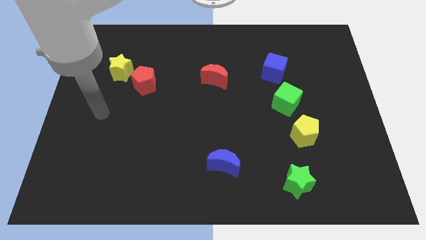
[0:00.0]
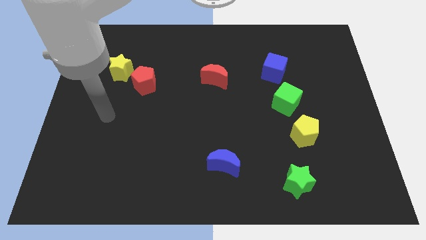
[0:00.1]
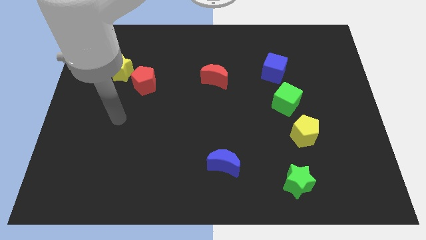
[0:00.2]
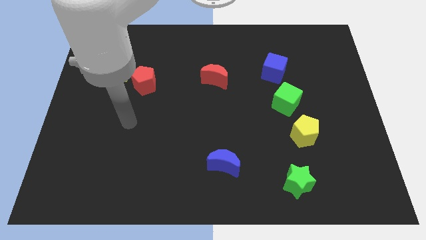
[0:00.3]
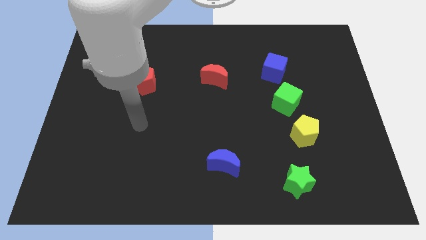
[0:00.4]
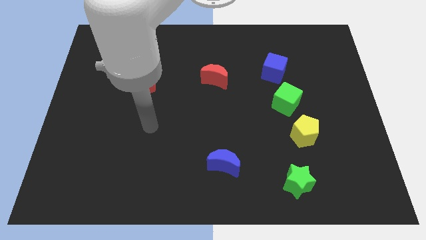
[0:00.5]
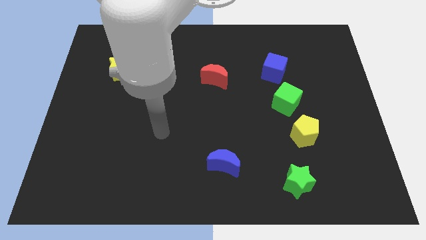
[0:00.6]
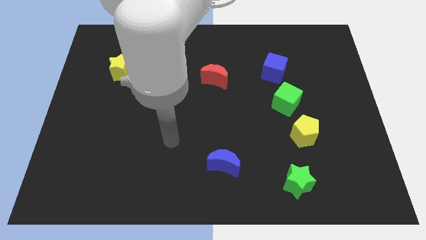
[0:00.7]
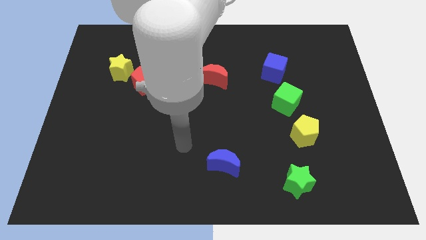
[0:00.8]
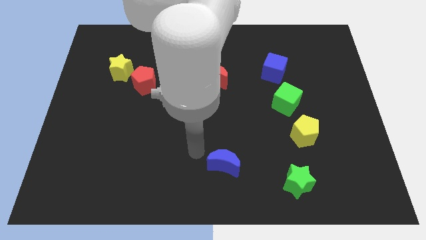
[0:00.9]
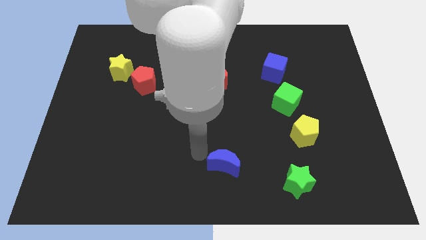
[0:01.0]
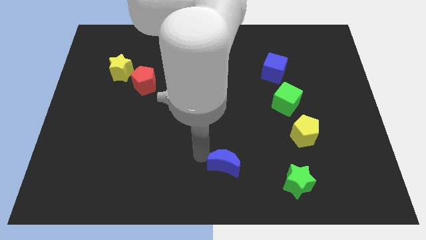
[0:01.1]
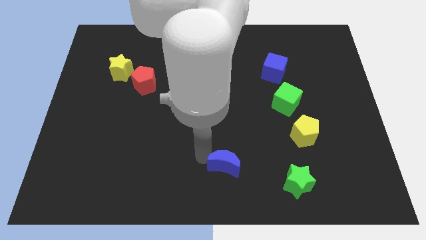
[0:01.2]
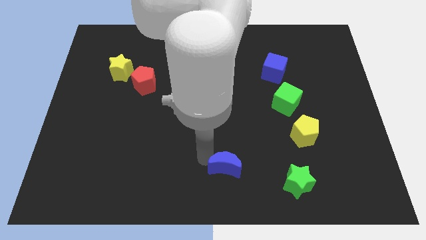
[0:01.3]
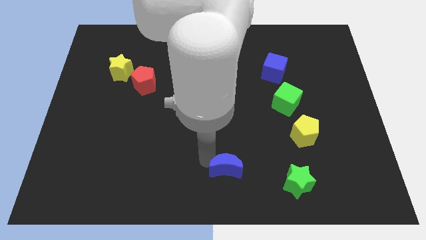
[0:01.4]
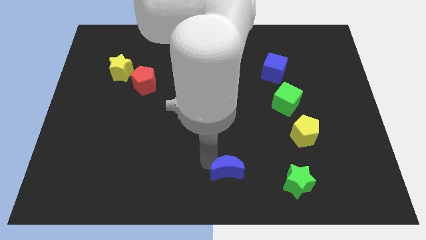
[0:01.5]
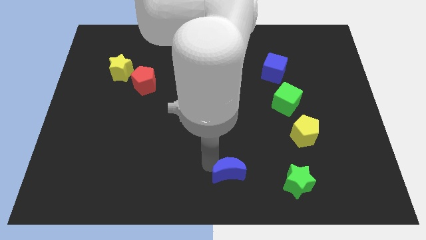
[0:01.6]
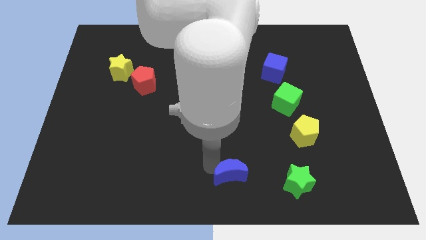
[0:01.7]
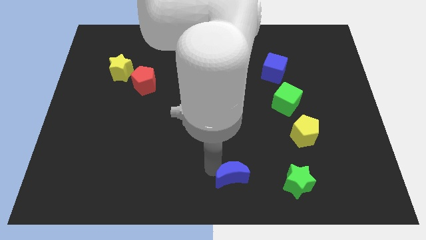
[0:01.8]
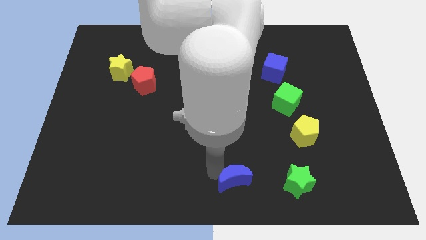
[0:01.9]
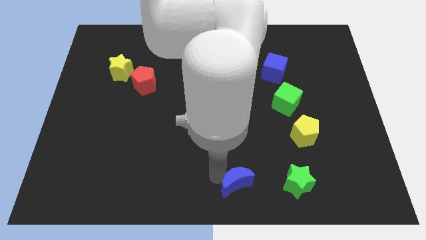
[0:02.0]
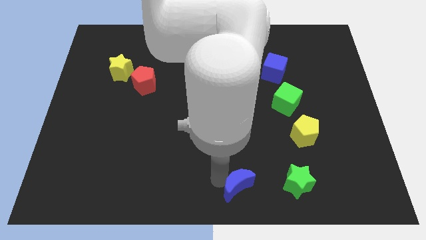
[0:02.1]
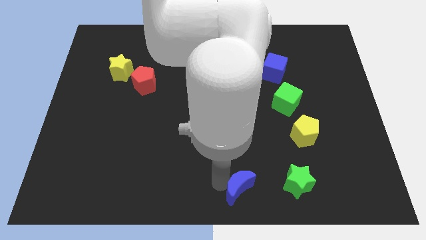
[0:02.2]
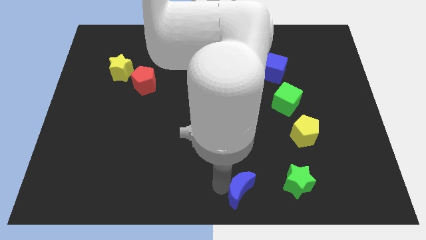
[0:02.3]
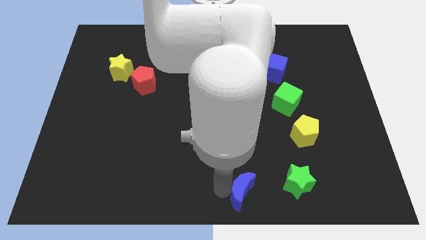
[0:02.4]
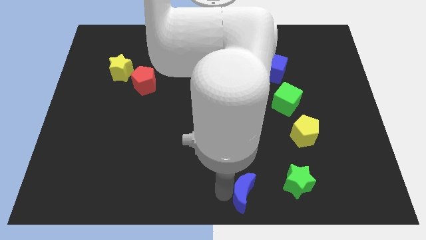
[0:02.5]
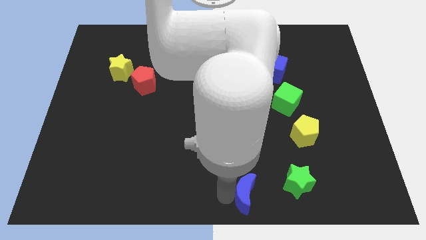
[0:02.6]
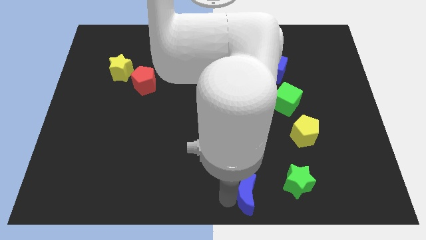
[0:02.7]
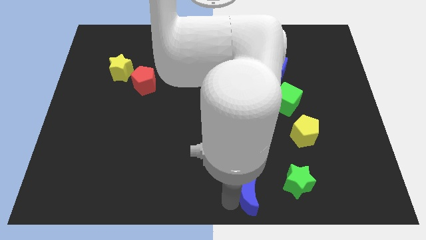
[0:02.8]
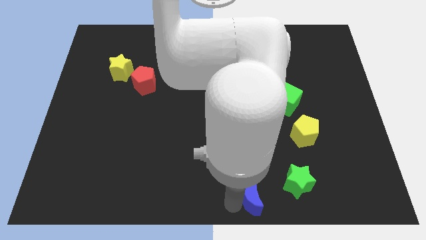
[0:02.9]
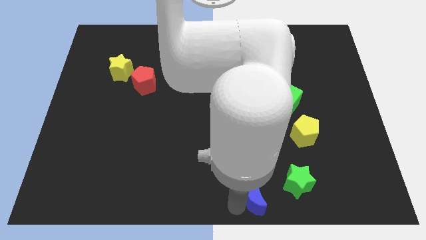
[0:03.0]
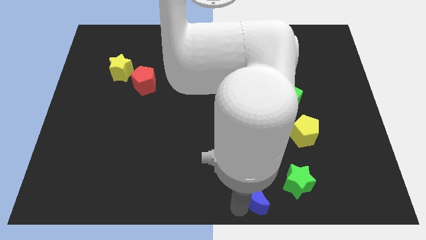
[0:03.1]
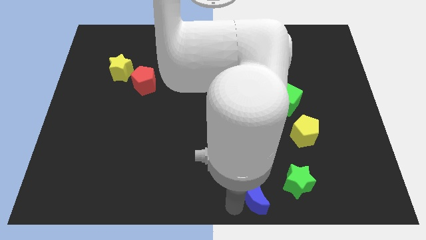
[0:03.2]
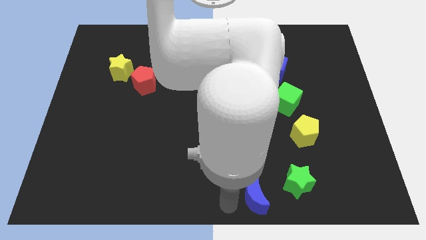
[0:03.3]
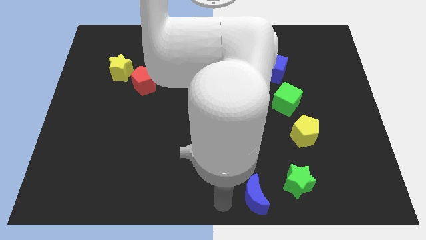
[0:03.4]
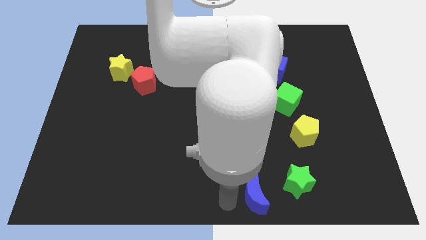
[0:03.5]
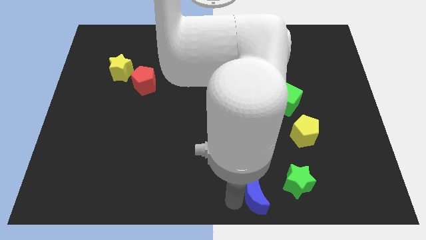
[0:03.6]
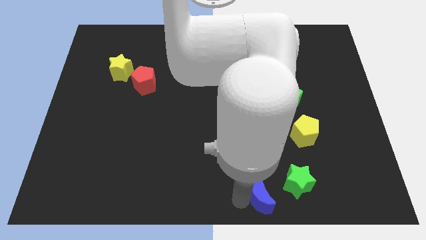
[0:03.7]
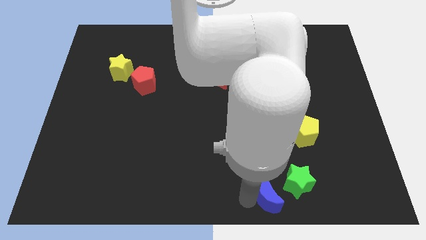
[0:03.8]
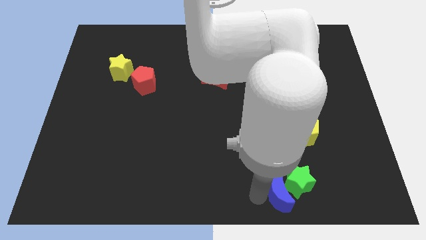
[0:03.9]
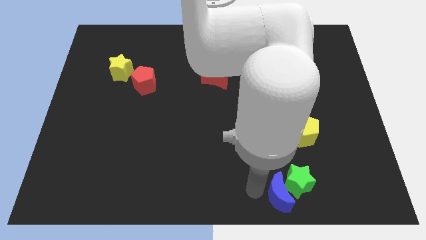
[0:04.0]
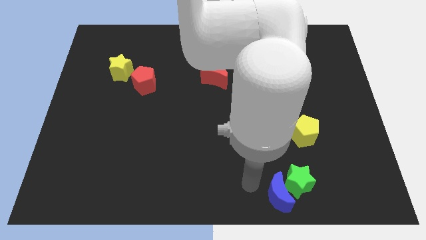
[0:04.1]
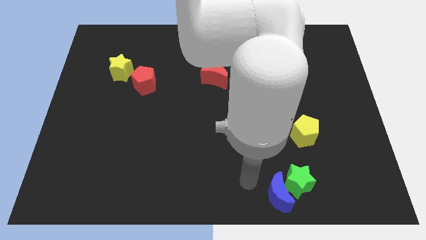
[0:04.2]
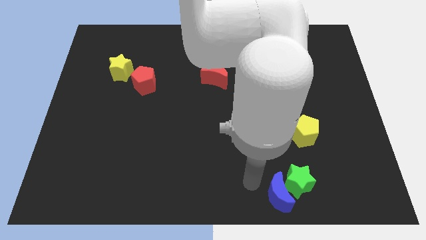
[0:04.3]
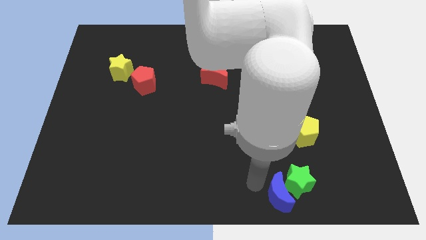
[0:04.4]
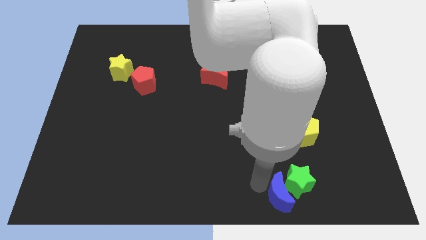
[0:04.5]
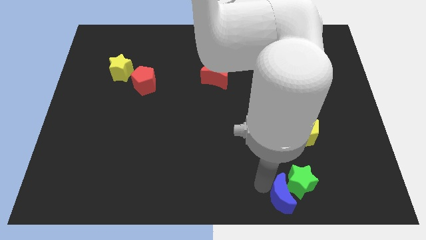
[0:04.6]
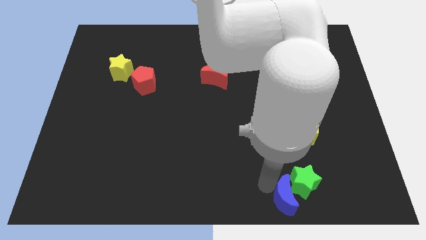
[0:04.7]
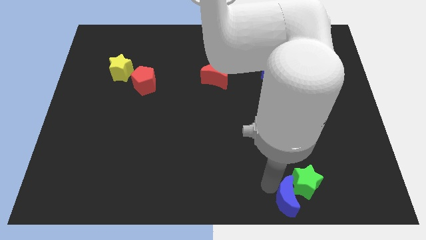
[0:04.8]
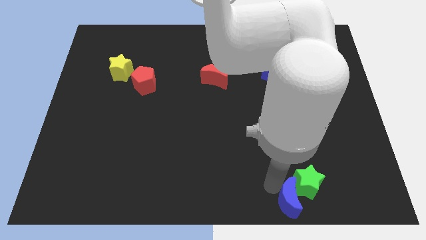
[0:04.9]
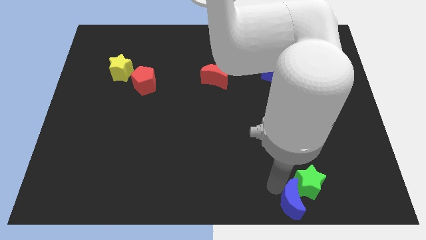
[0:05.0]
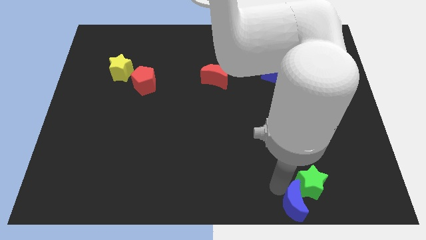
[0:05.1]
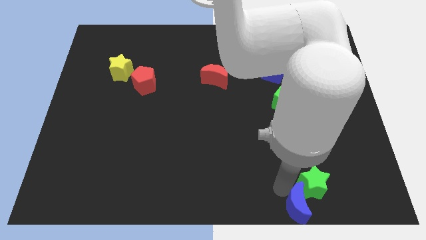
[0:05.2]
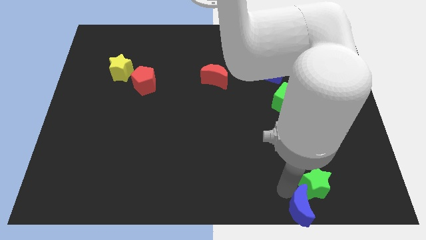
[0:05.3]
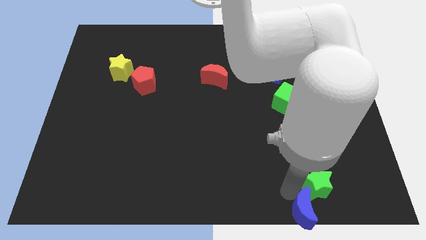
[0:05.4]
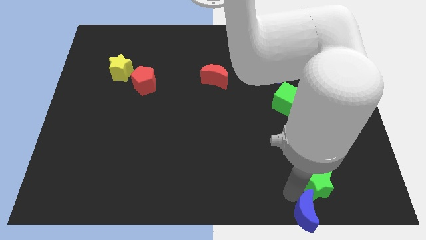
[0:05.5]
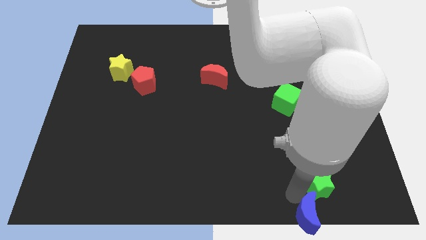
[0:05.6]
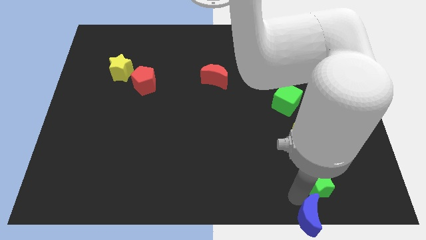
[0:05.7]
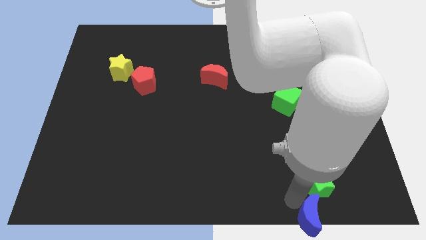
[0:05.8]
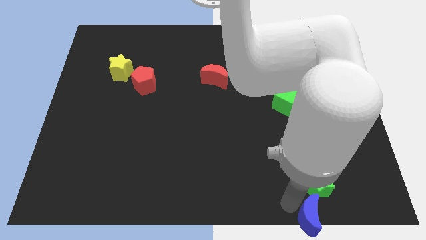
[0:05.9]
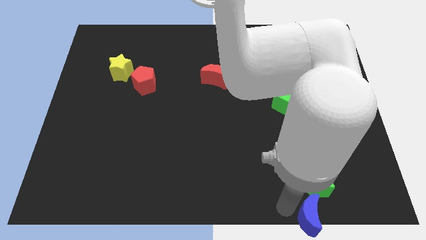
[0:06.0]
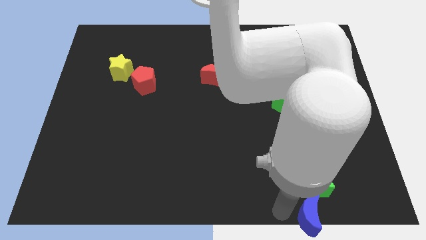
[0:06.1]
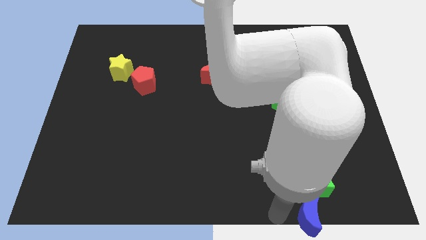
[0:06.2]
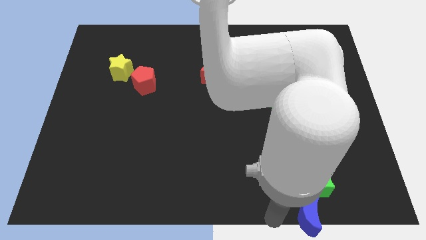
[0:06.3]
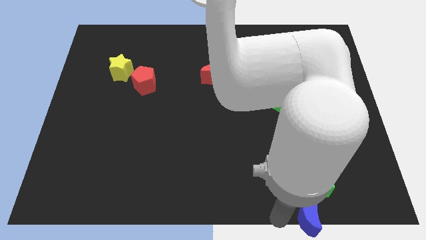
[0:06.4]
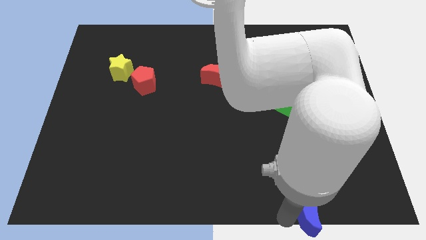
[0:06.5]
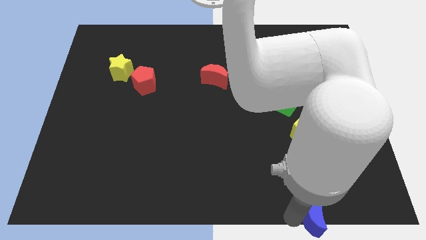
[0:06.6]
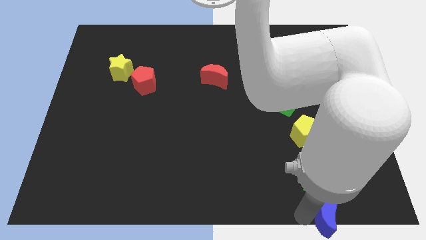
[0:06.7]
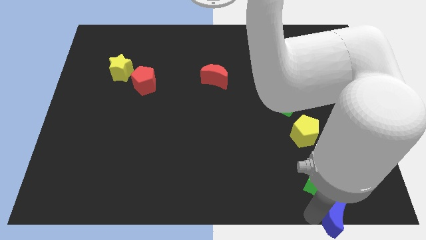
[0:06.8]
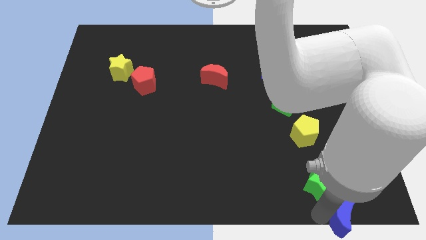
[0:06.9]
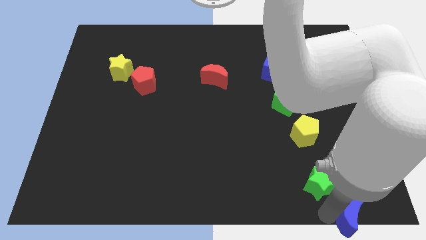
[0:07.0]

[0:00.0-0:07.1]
push the blue moon to the bottom right corner
